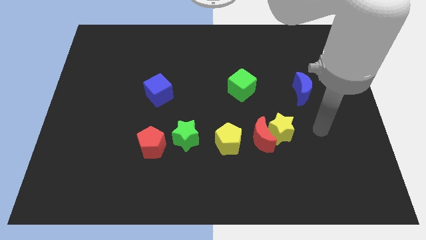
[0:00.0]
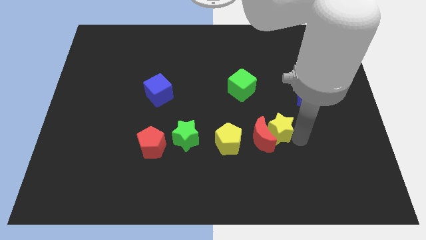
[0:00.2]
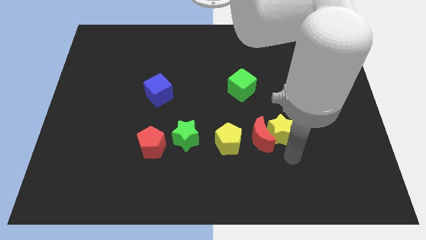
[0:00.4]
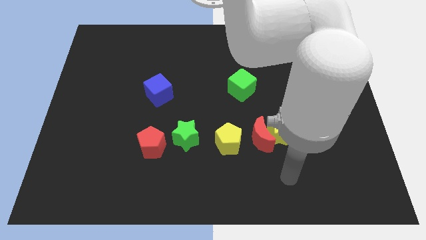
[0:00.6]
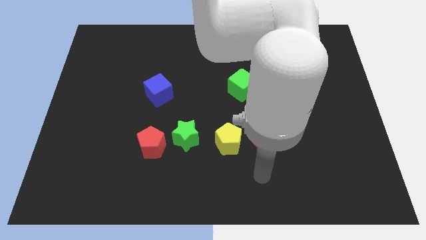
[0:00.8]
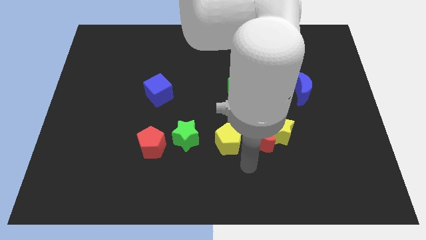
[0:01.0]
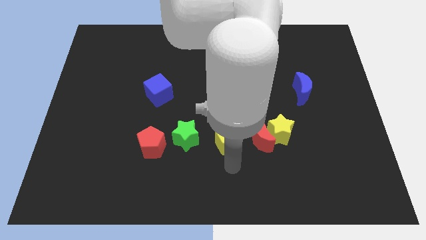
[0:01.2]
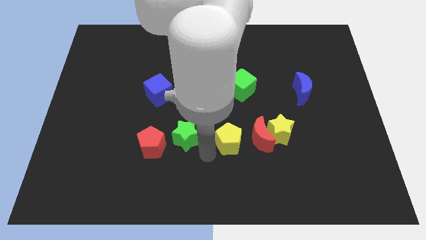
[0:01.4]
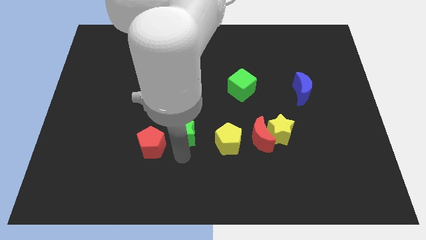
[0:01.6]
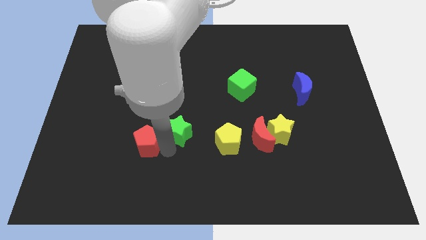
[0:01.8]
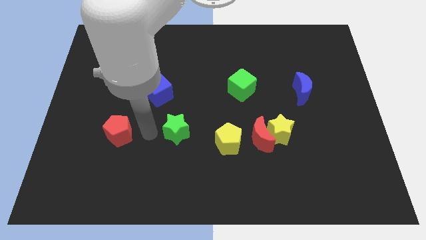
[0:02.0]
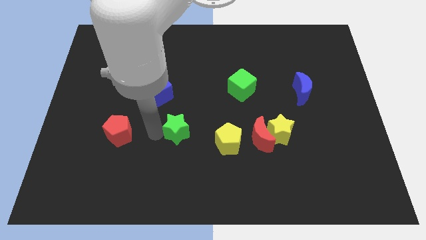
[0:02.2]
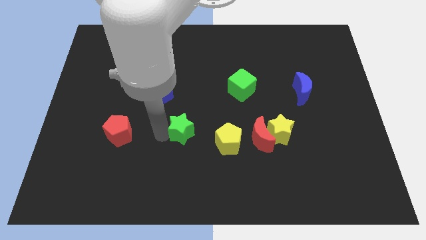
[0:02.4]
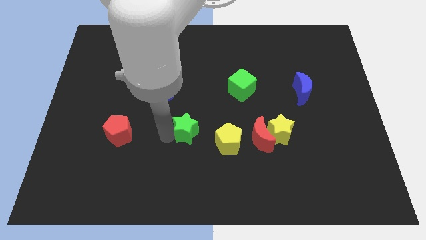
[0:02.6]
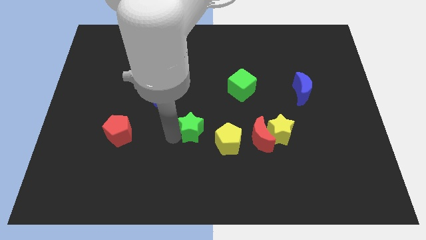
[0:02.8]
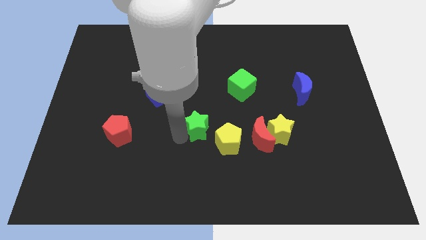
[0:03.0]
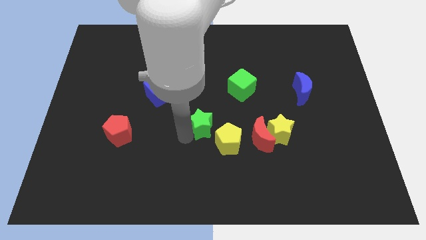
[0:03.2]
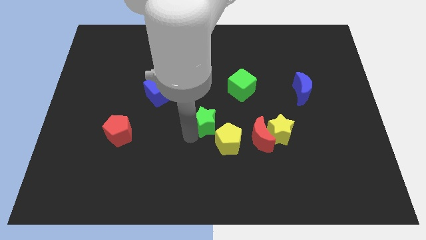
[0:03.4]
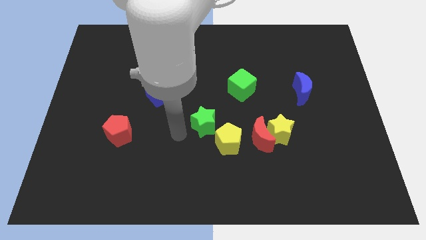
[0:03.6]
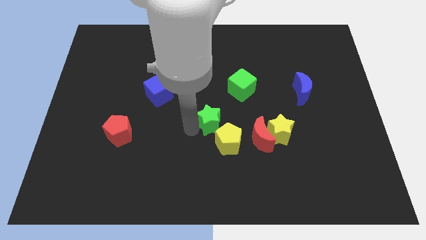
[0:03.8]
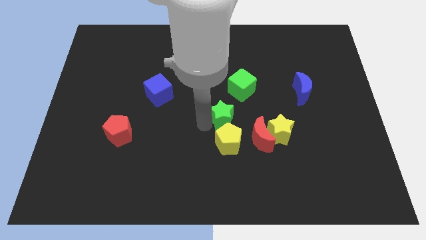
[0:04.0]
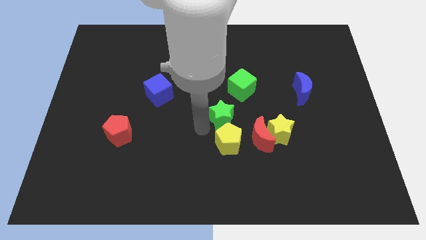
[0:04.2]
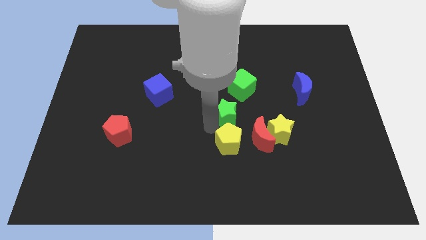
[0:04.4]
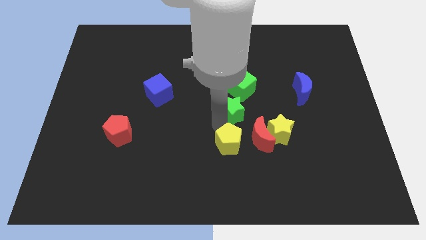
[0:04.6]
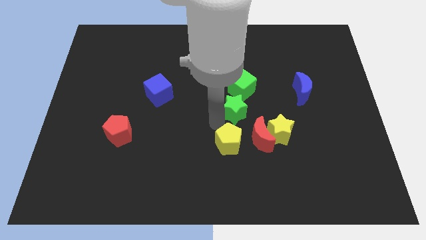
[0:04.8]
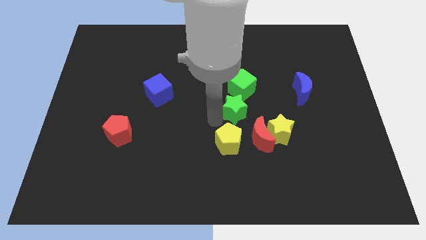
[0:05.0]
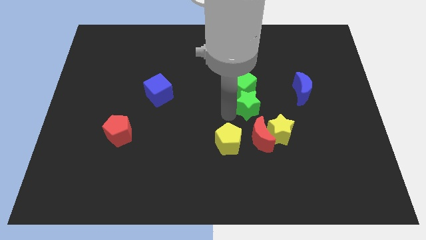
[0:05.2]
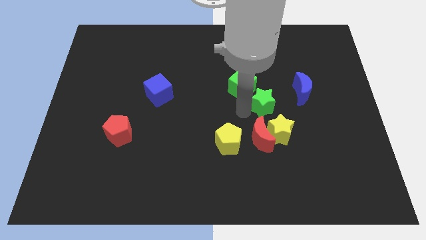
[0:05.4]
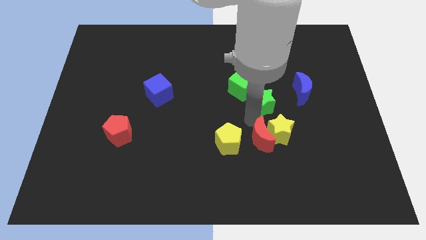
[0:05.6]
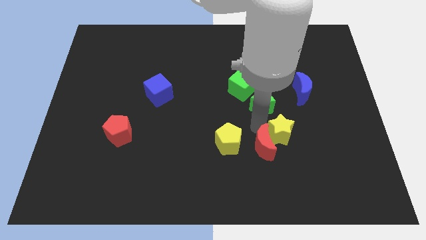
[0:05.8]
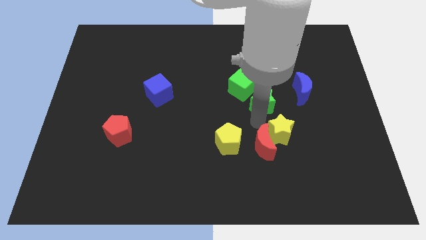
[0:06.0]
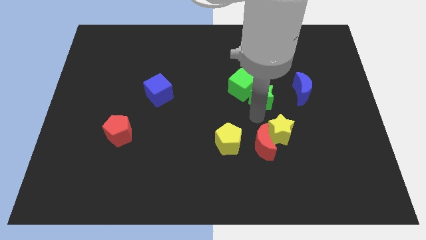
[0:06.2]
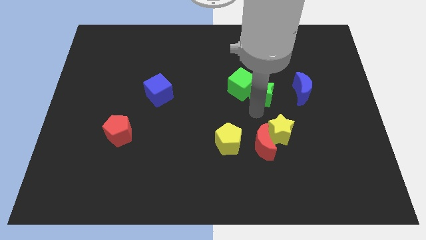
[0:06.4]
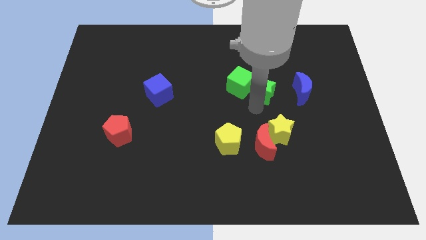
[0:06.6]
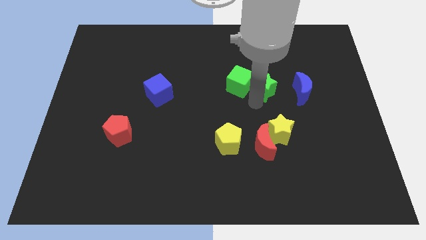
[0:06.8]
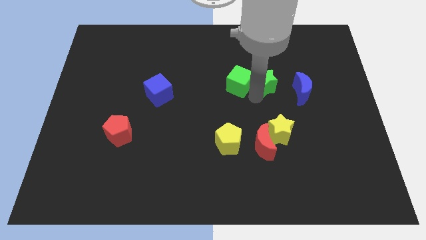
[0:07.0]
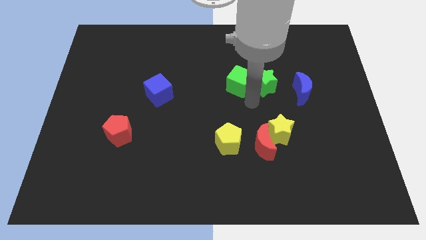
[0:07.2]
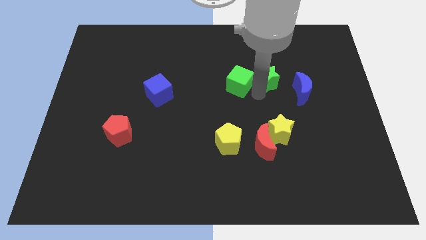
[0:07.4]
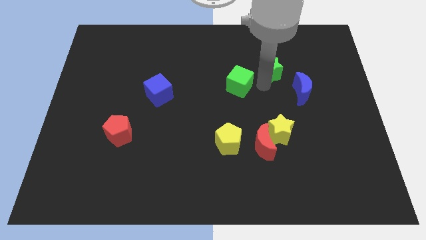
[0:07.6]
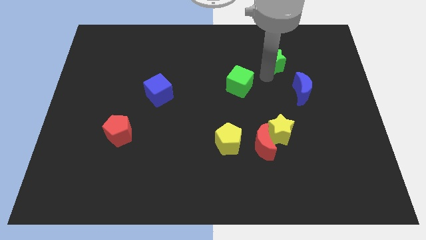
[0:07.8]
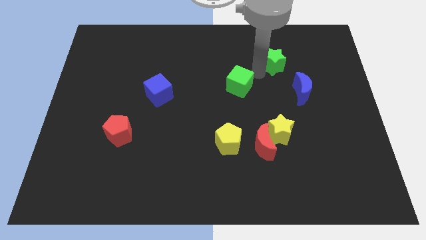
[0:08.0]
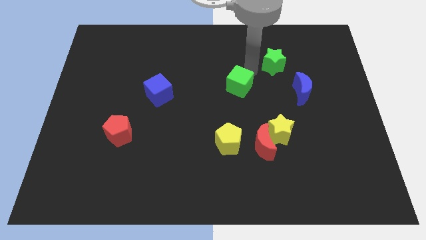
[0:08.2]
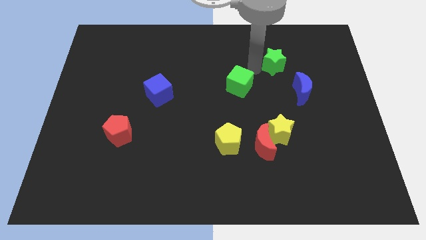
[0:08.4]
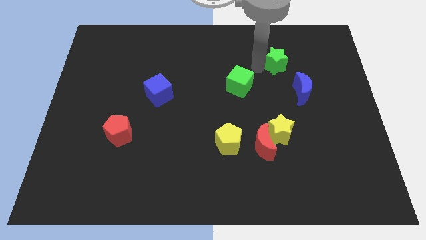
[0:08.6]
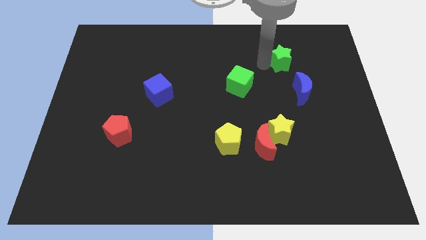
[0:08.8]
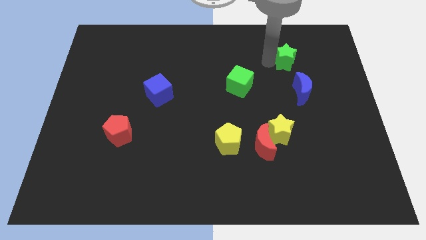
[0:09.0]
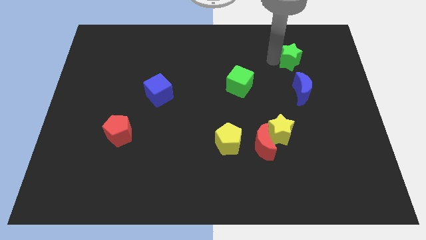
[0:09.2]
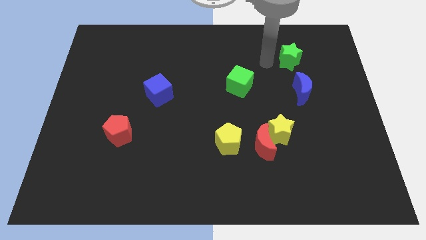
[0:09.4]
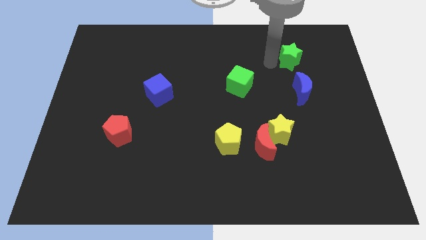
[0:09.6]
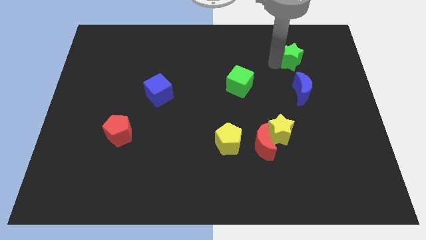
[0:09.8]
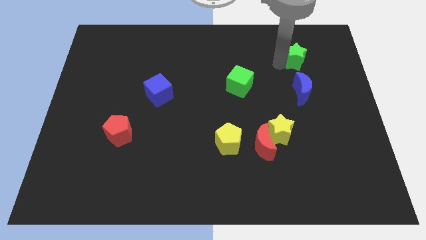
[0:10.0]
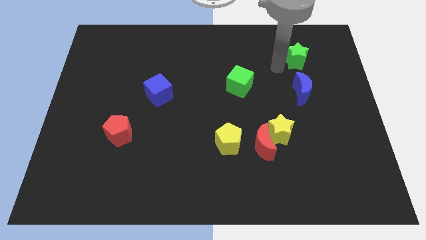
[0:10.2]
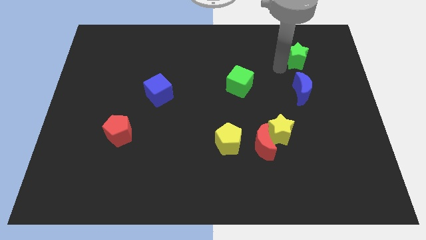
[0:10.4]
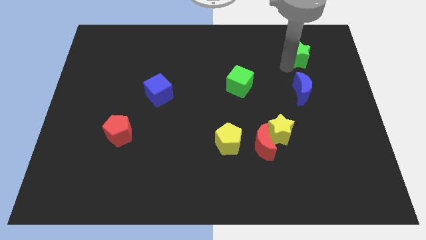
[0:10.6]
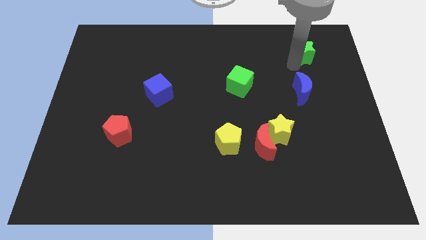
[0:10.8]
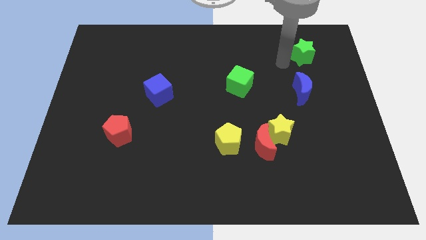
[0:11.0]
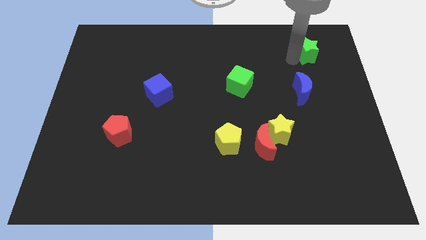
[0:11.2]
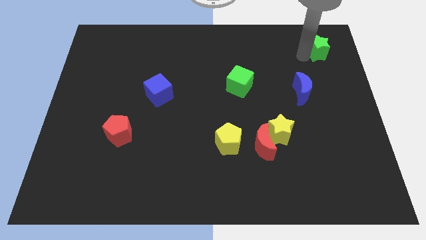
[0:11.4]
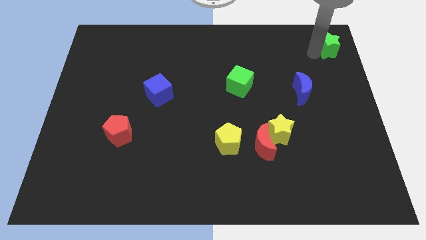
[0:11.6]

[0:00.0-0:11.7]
put the green star to the upper right corner
